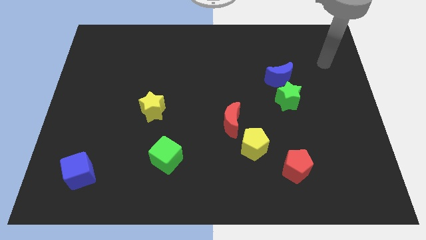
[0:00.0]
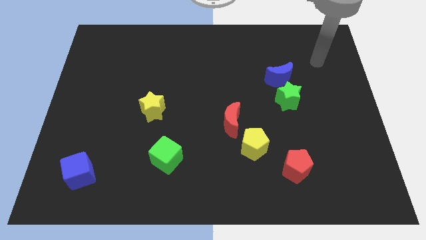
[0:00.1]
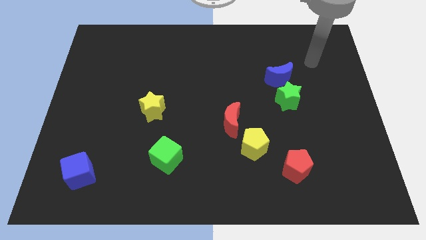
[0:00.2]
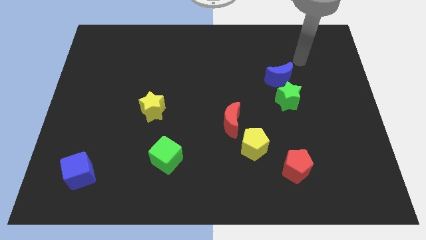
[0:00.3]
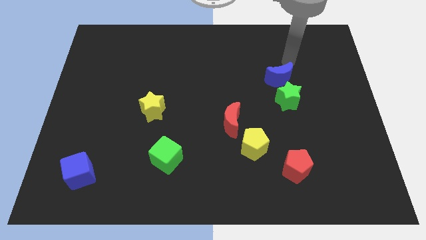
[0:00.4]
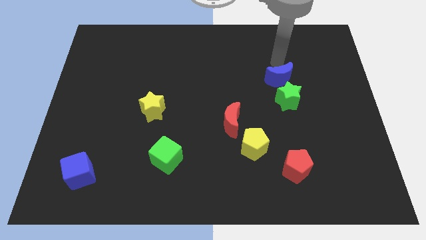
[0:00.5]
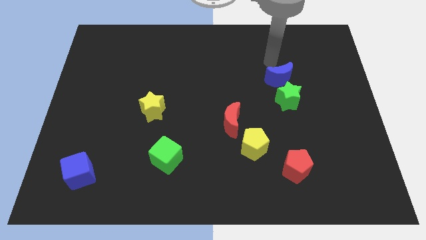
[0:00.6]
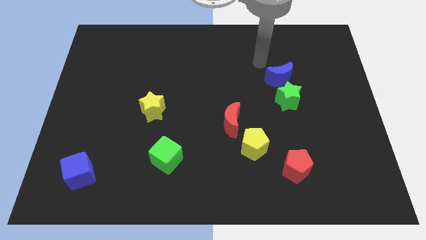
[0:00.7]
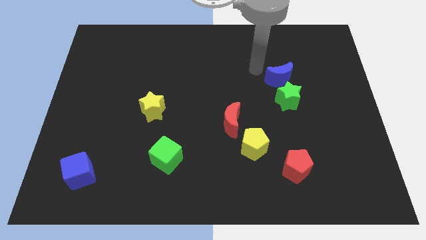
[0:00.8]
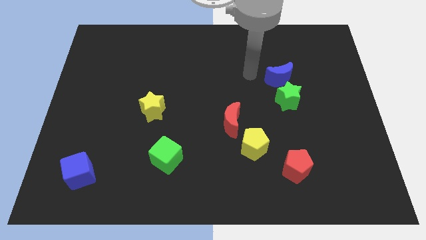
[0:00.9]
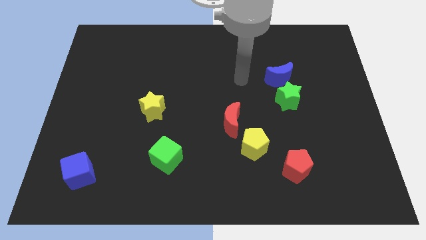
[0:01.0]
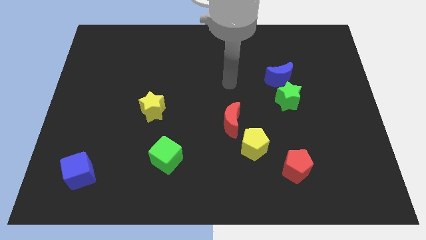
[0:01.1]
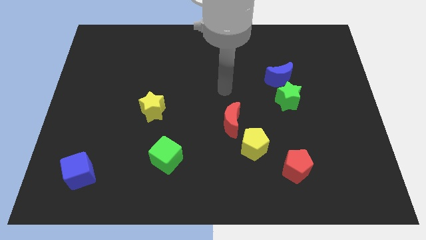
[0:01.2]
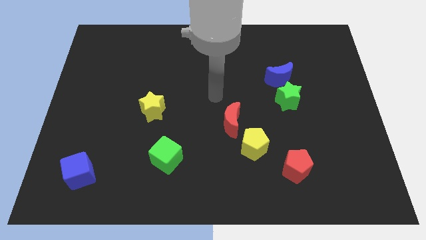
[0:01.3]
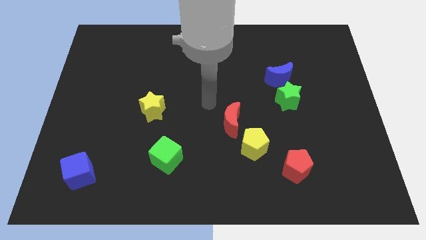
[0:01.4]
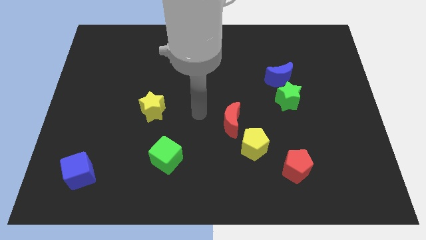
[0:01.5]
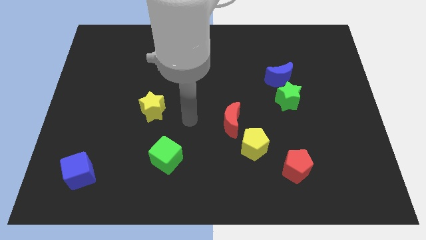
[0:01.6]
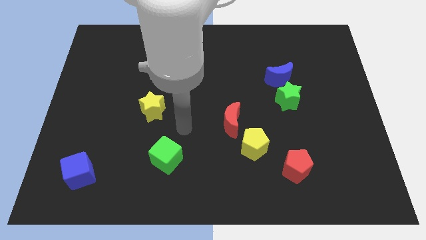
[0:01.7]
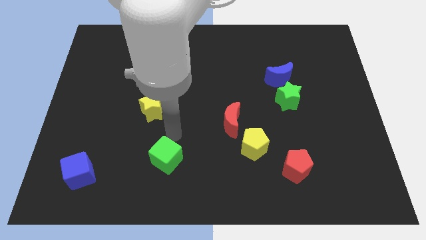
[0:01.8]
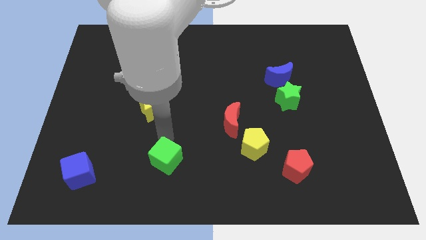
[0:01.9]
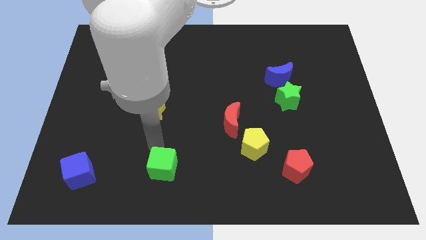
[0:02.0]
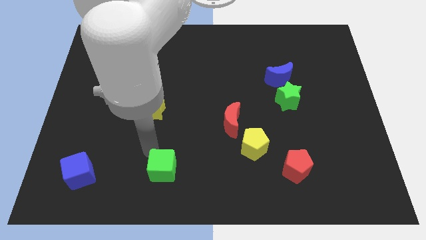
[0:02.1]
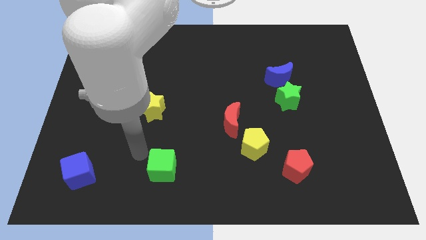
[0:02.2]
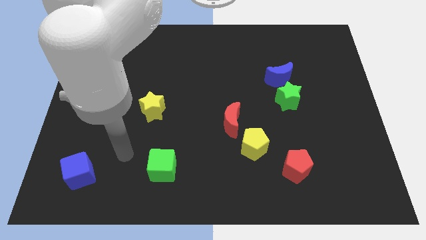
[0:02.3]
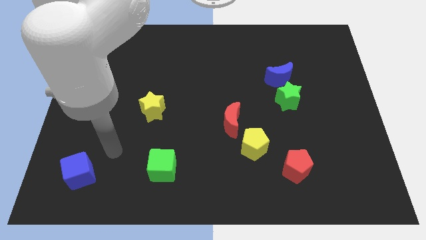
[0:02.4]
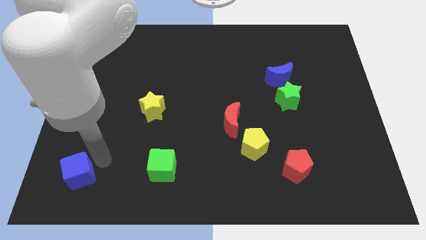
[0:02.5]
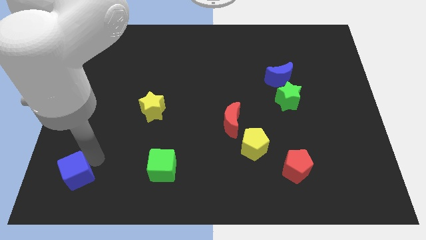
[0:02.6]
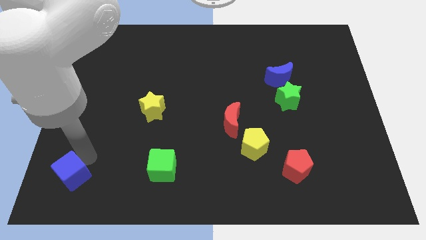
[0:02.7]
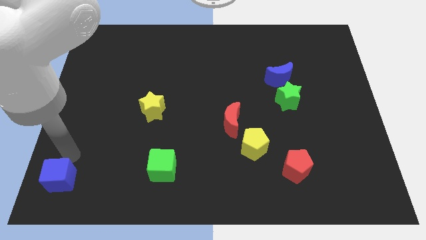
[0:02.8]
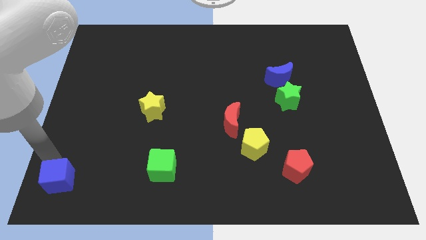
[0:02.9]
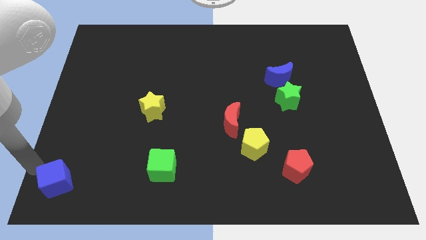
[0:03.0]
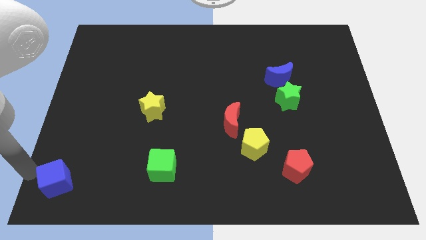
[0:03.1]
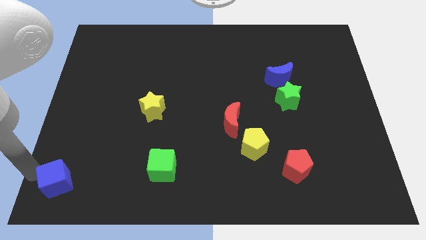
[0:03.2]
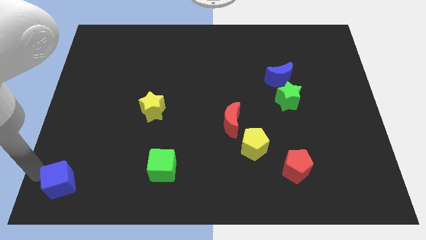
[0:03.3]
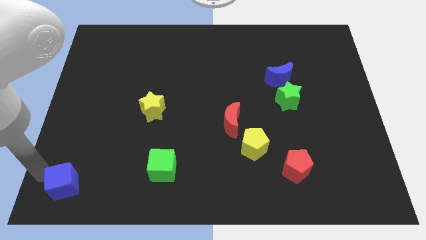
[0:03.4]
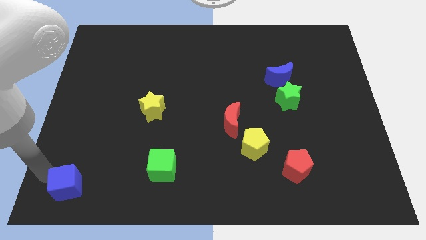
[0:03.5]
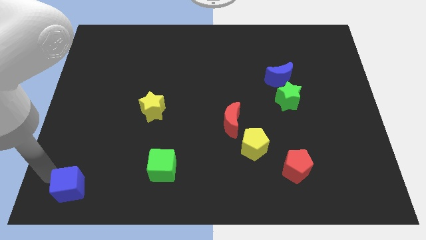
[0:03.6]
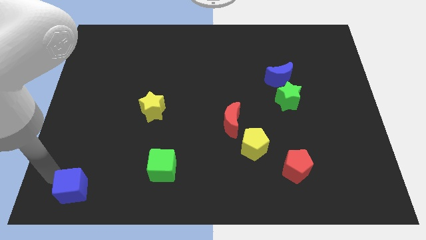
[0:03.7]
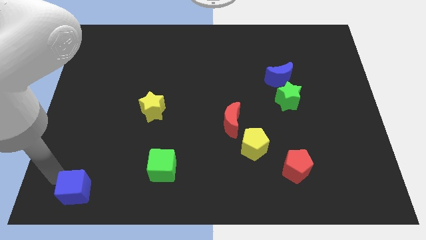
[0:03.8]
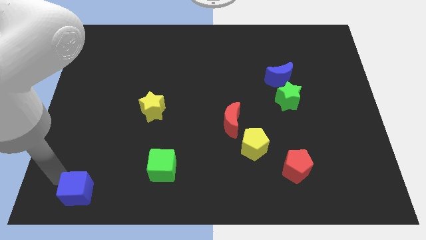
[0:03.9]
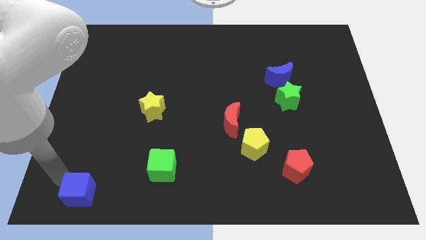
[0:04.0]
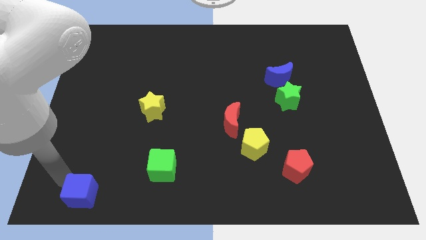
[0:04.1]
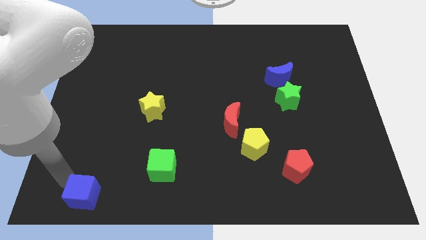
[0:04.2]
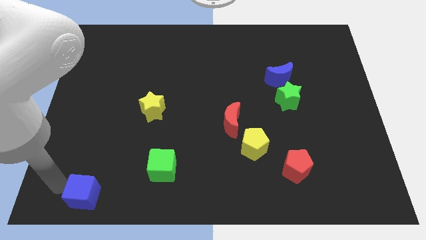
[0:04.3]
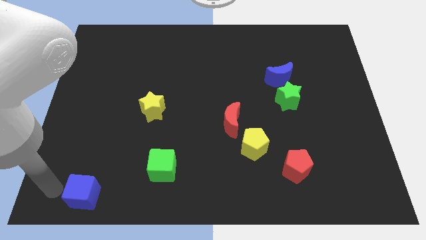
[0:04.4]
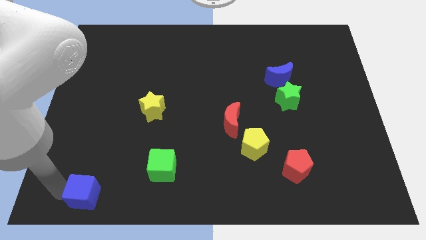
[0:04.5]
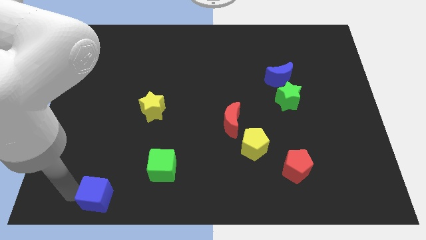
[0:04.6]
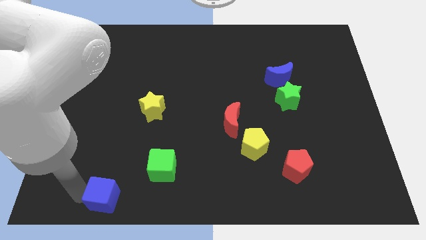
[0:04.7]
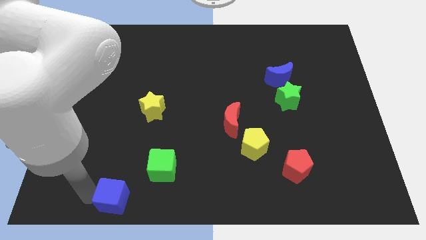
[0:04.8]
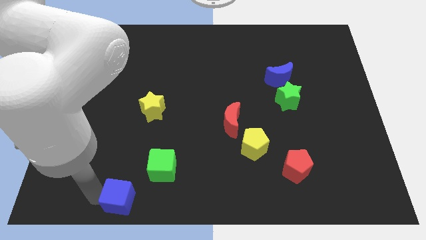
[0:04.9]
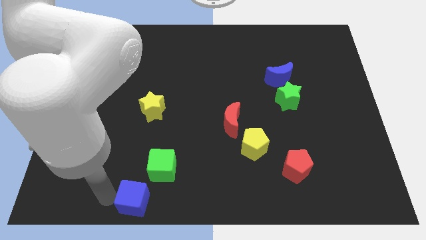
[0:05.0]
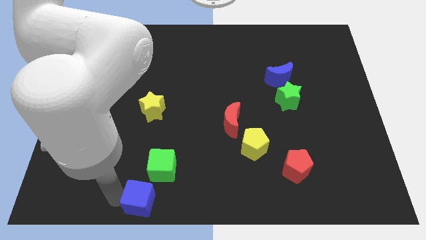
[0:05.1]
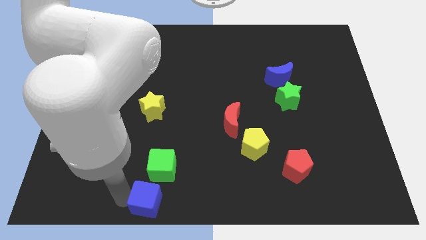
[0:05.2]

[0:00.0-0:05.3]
move the blue cube to the bottom side

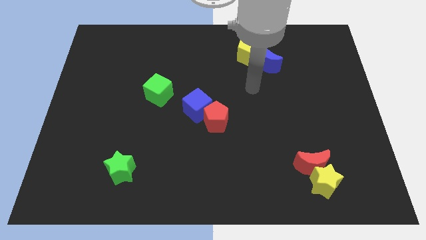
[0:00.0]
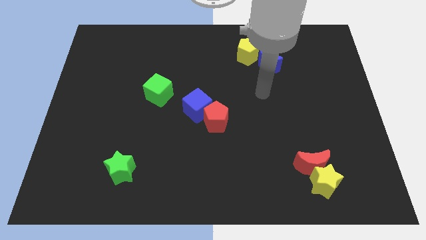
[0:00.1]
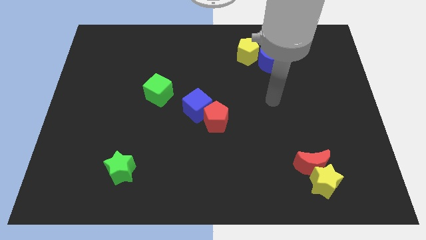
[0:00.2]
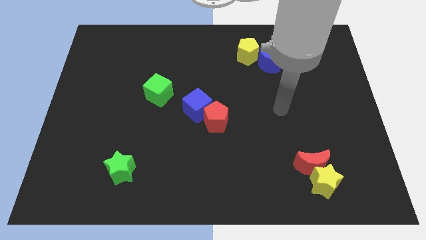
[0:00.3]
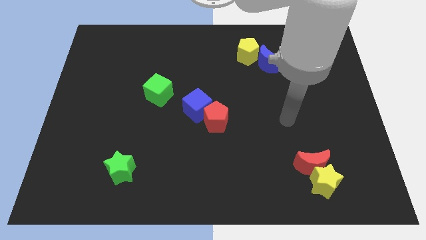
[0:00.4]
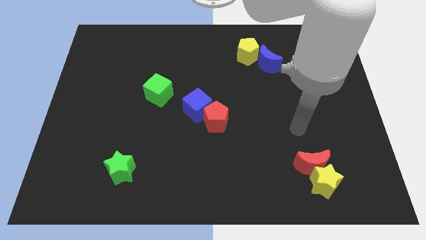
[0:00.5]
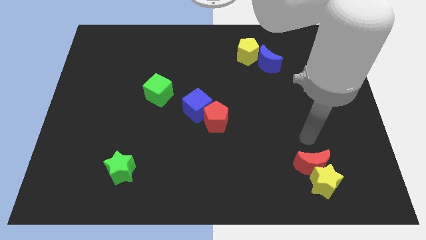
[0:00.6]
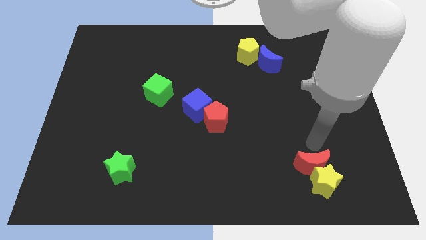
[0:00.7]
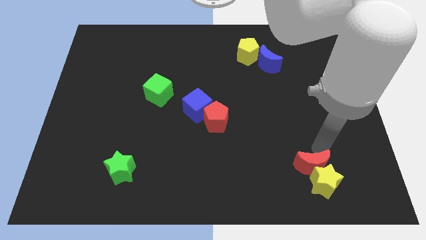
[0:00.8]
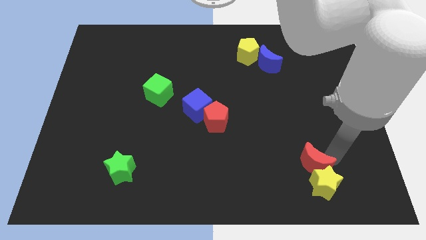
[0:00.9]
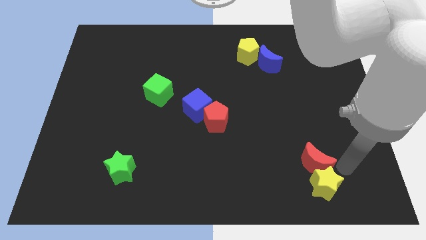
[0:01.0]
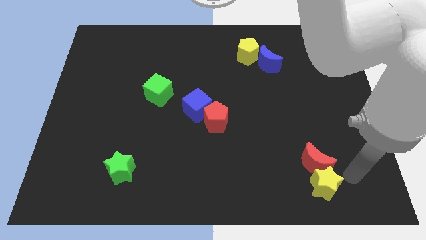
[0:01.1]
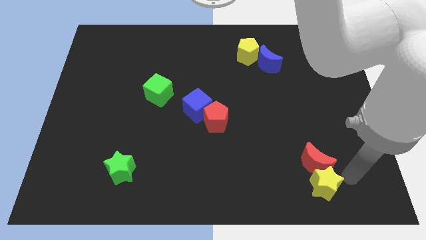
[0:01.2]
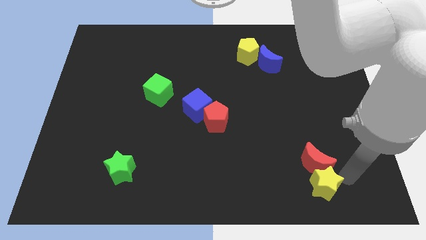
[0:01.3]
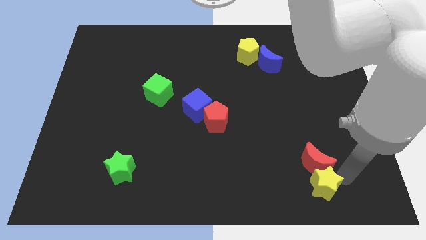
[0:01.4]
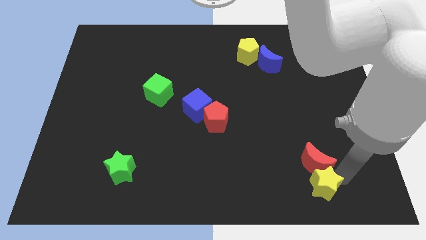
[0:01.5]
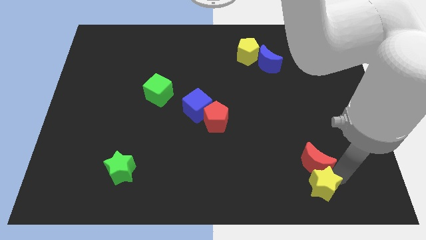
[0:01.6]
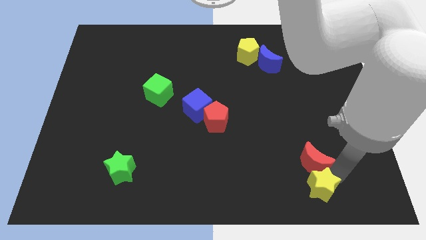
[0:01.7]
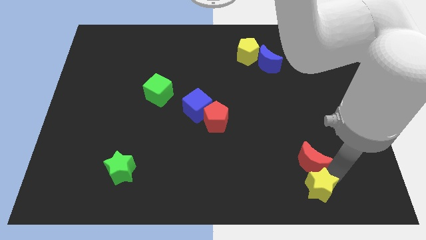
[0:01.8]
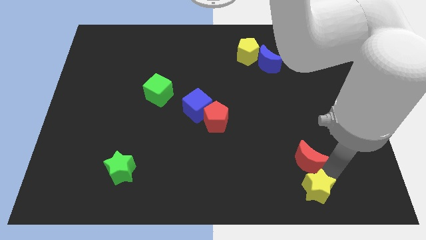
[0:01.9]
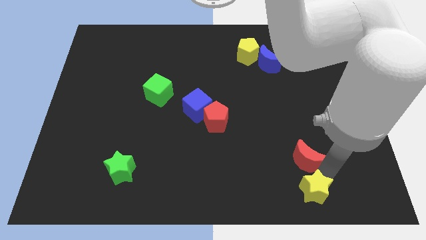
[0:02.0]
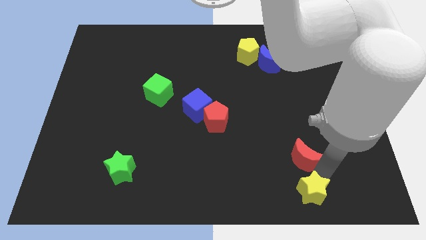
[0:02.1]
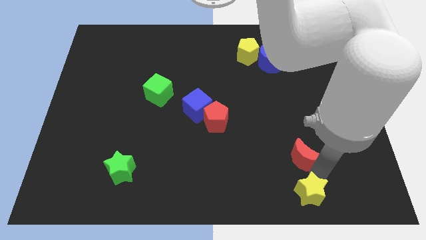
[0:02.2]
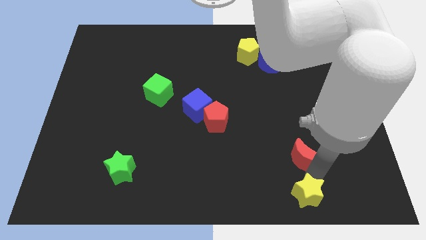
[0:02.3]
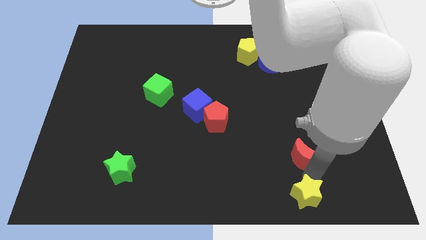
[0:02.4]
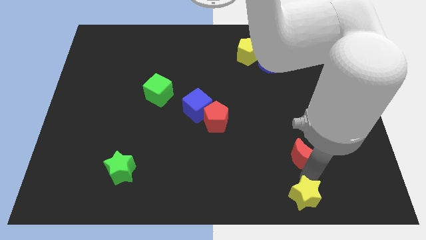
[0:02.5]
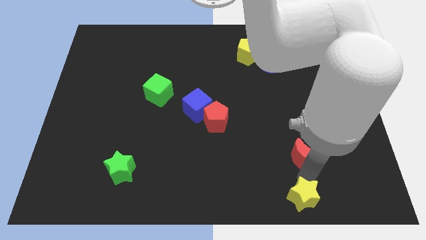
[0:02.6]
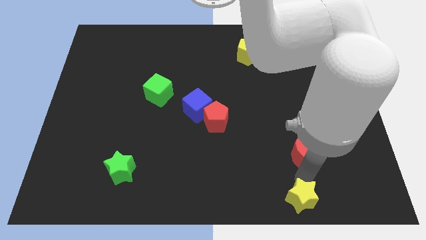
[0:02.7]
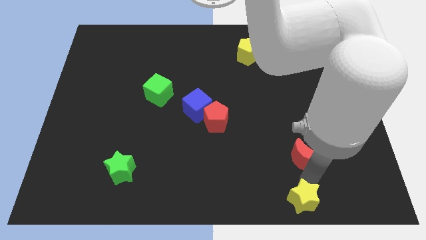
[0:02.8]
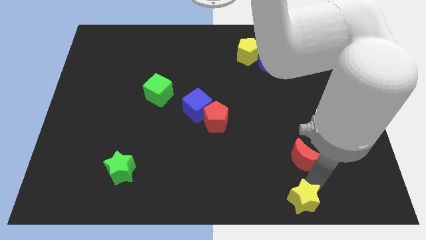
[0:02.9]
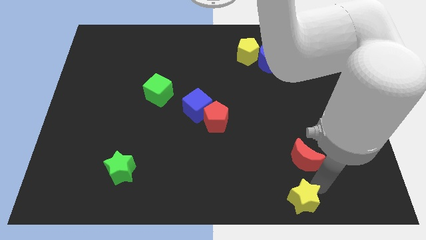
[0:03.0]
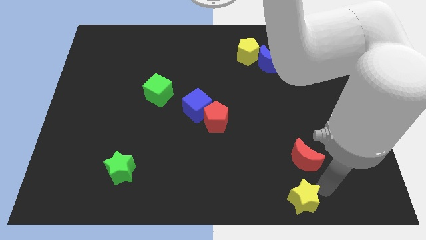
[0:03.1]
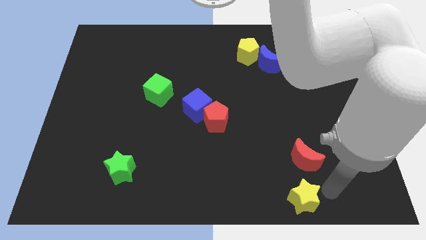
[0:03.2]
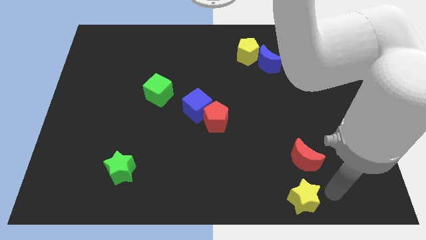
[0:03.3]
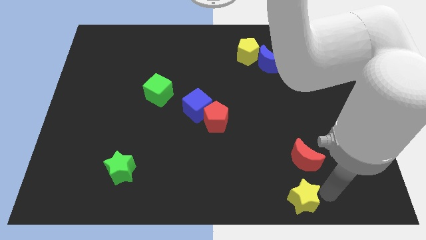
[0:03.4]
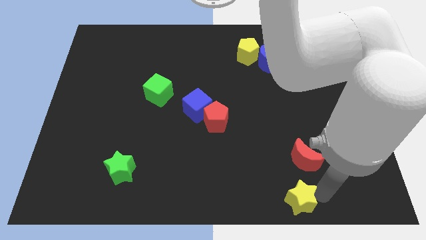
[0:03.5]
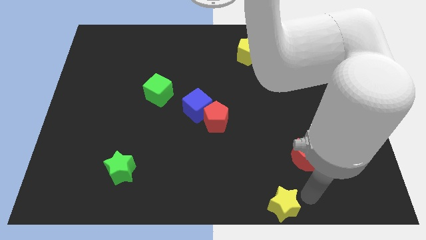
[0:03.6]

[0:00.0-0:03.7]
push the yellow star to the bottom side
